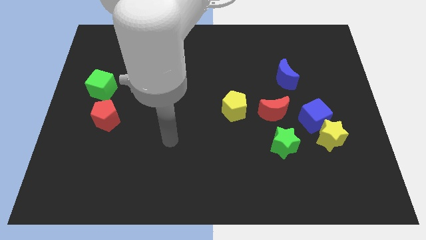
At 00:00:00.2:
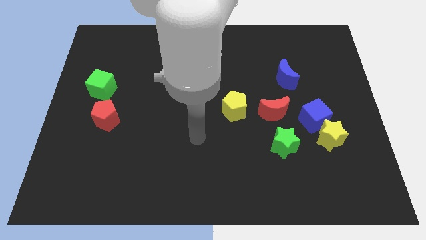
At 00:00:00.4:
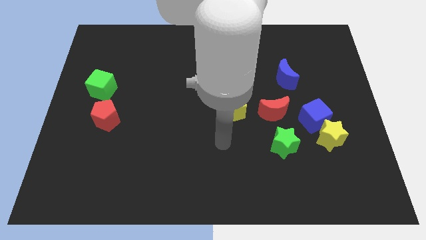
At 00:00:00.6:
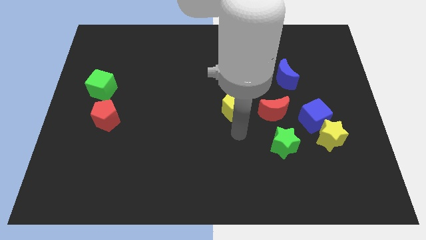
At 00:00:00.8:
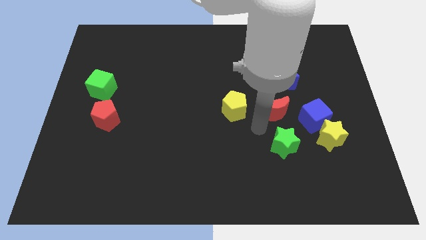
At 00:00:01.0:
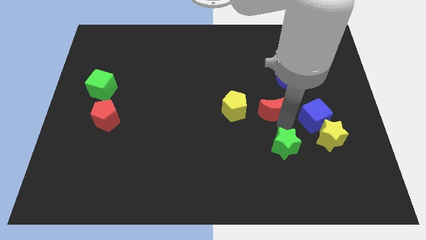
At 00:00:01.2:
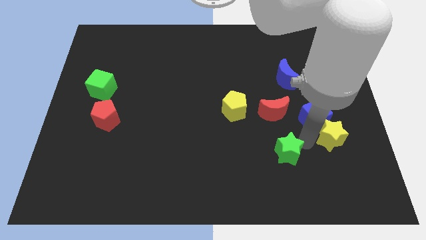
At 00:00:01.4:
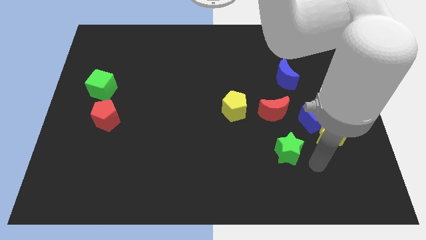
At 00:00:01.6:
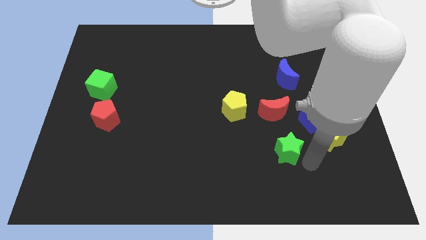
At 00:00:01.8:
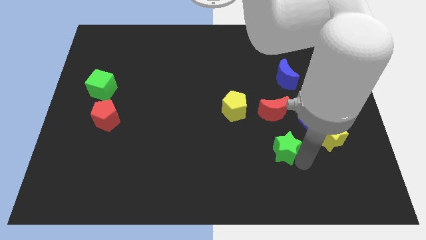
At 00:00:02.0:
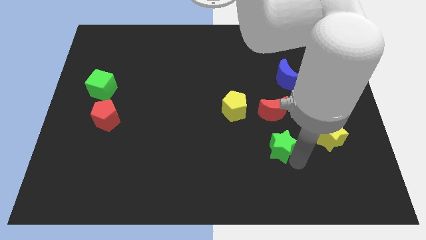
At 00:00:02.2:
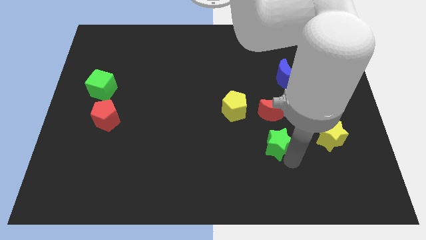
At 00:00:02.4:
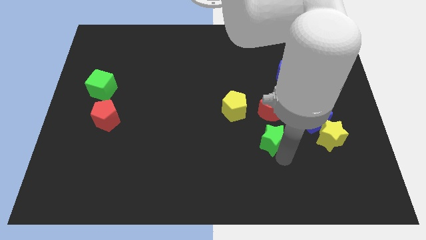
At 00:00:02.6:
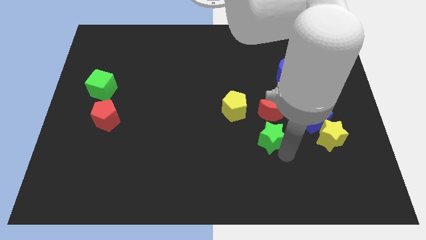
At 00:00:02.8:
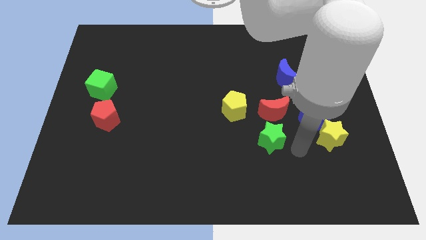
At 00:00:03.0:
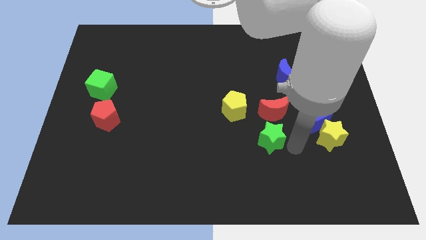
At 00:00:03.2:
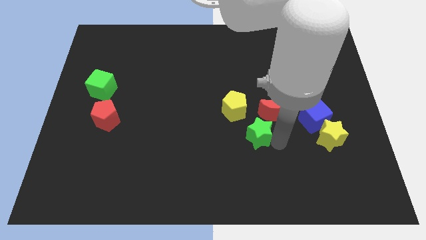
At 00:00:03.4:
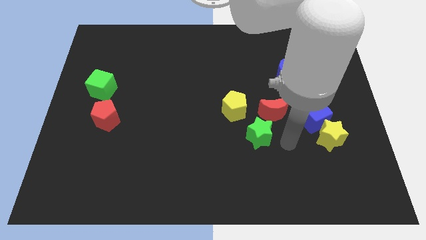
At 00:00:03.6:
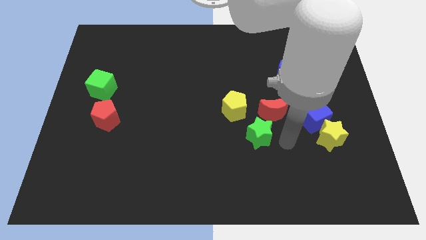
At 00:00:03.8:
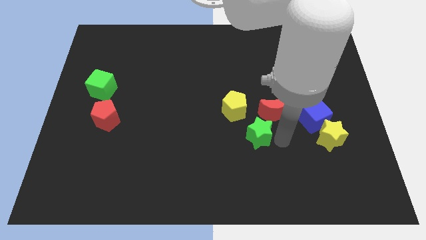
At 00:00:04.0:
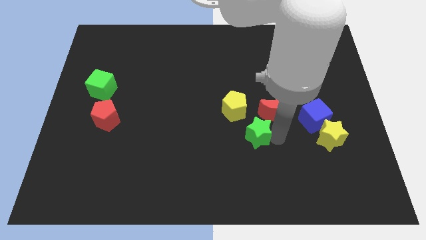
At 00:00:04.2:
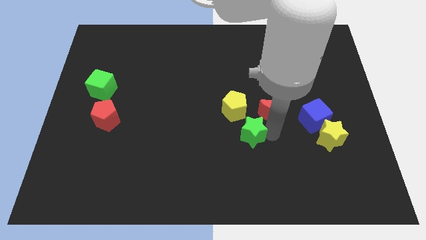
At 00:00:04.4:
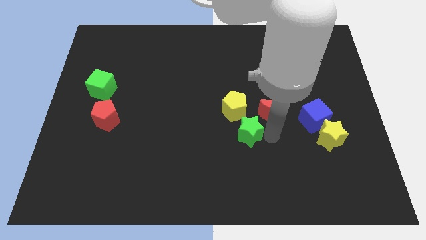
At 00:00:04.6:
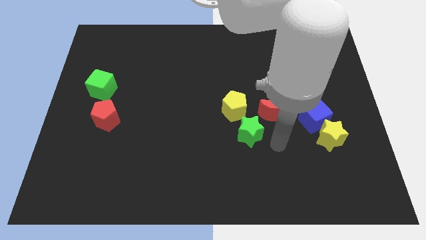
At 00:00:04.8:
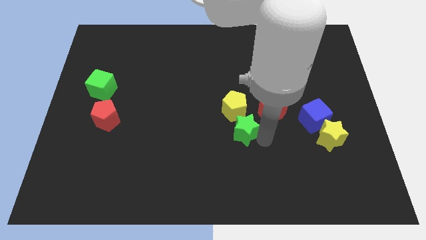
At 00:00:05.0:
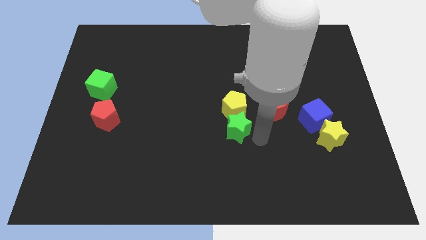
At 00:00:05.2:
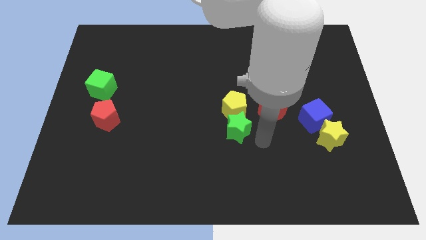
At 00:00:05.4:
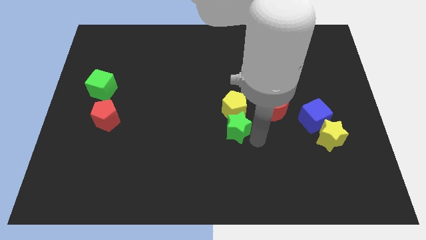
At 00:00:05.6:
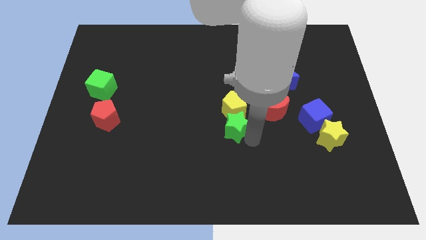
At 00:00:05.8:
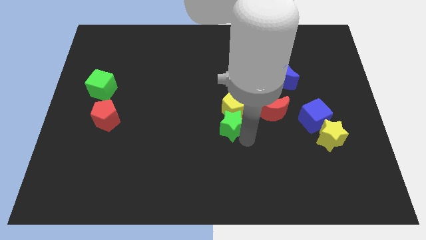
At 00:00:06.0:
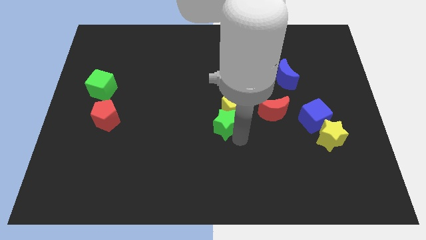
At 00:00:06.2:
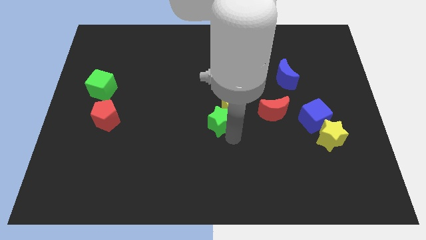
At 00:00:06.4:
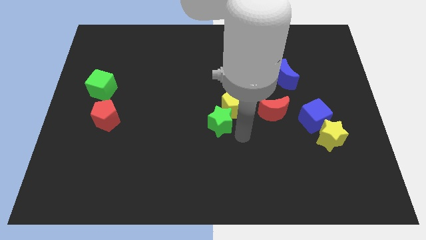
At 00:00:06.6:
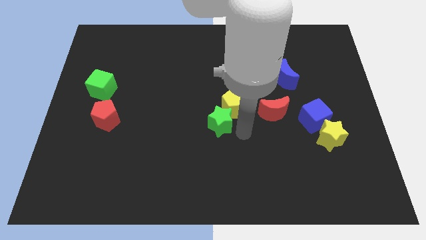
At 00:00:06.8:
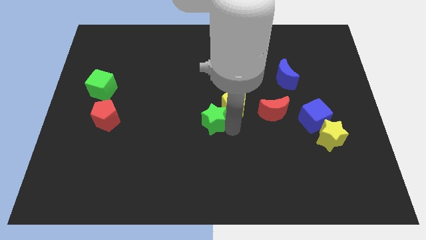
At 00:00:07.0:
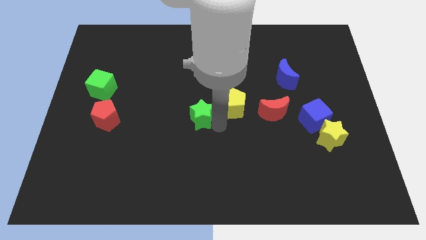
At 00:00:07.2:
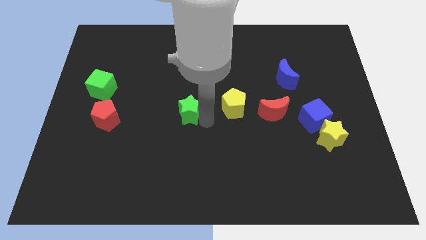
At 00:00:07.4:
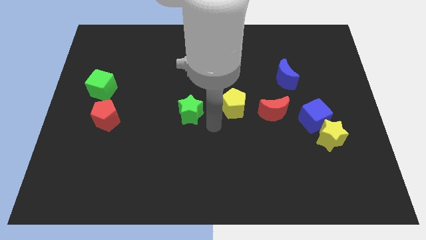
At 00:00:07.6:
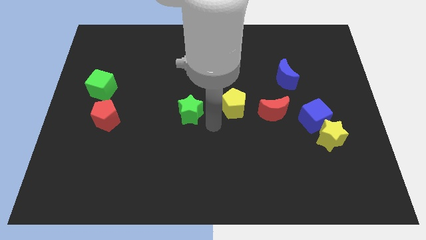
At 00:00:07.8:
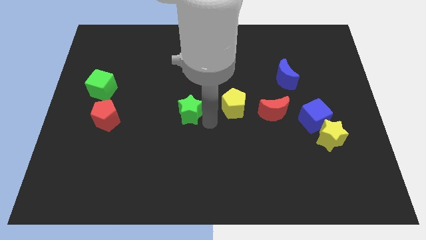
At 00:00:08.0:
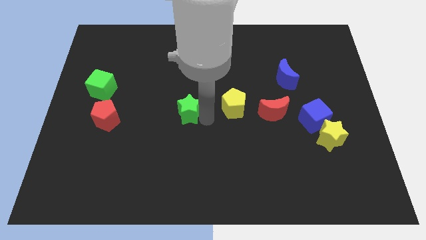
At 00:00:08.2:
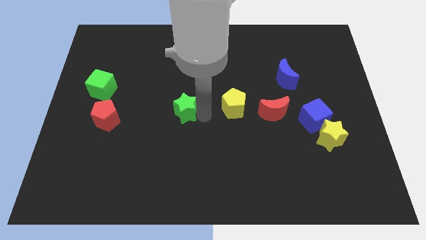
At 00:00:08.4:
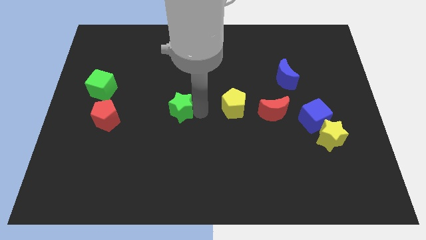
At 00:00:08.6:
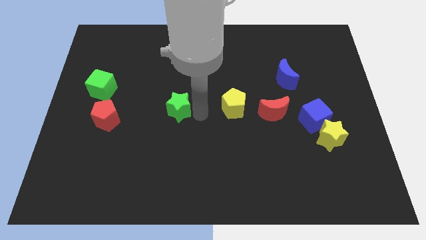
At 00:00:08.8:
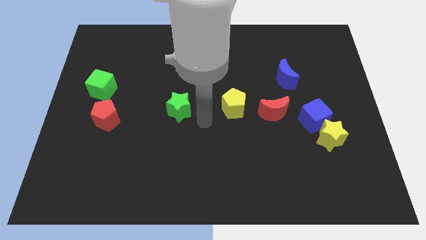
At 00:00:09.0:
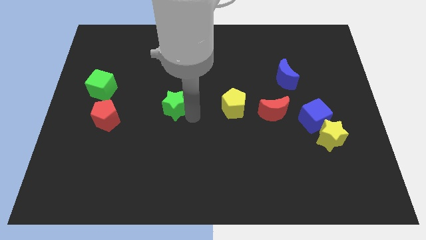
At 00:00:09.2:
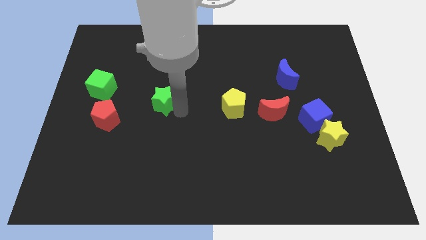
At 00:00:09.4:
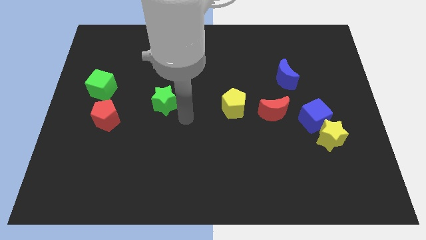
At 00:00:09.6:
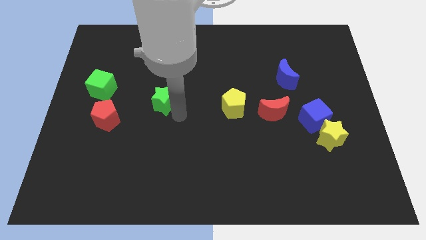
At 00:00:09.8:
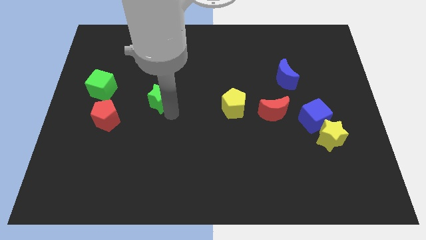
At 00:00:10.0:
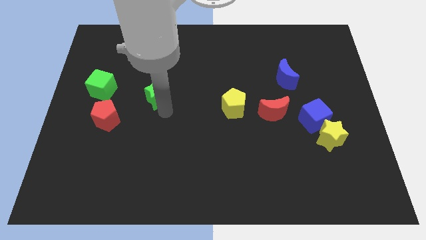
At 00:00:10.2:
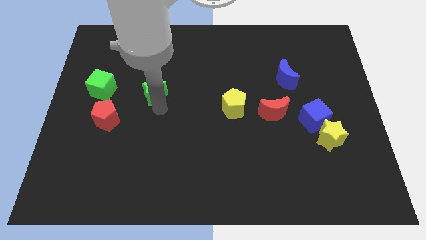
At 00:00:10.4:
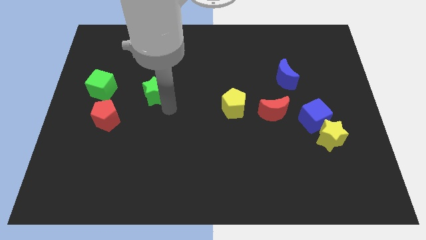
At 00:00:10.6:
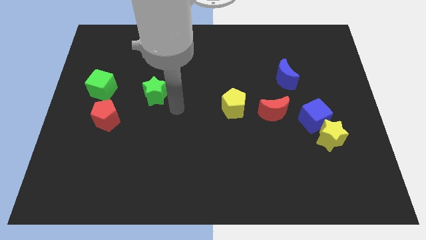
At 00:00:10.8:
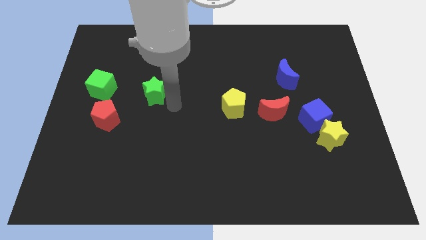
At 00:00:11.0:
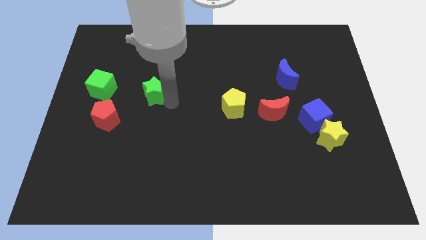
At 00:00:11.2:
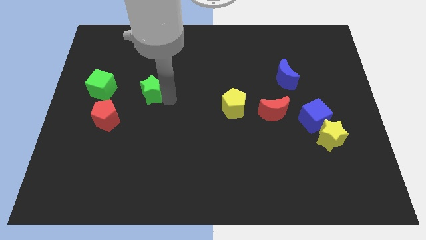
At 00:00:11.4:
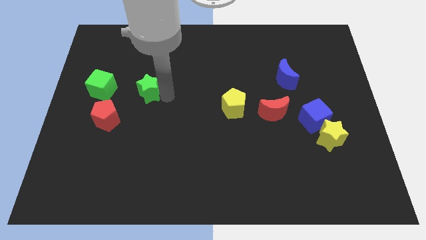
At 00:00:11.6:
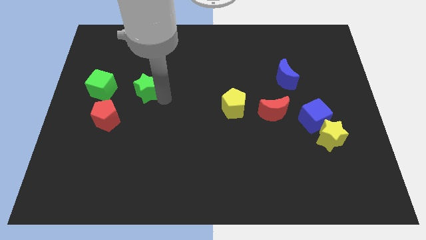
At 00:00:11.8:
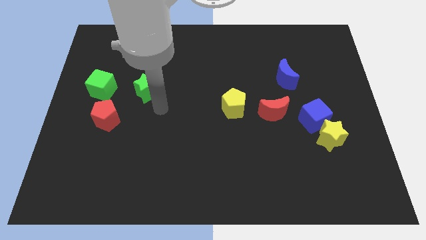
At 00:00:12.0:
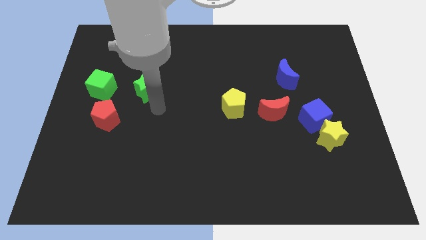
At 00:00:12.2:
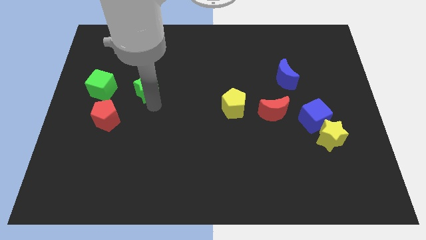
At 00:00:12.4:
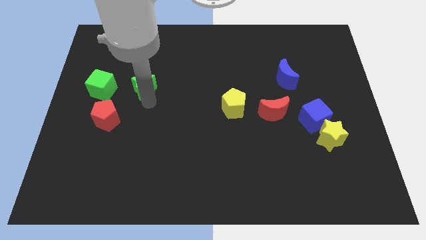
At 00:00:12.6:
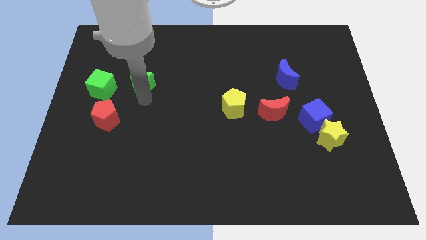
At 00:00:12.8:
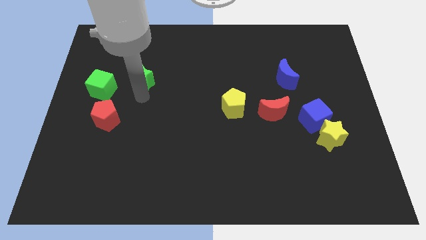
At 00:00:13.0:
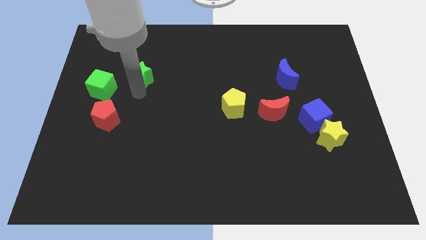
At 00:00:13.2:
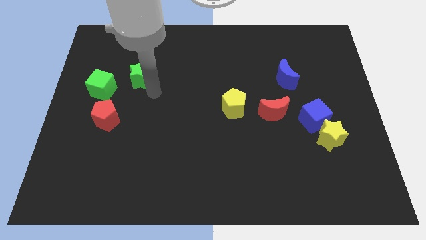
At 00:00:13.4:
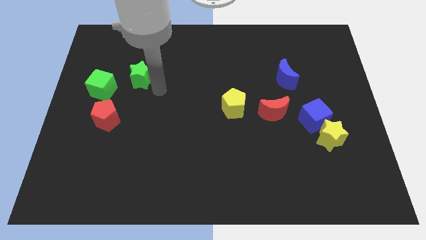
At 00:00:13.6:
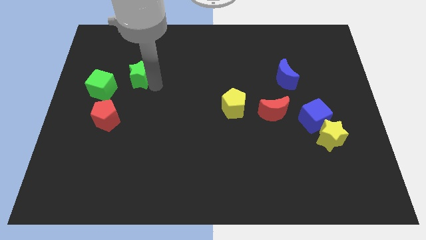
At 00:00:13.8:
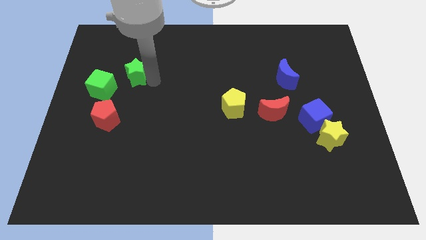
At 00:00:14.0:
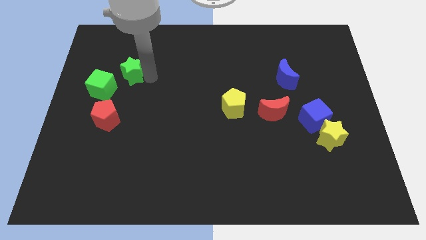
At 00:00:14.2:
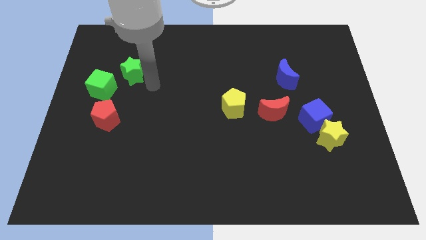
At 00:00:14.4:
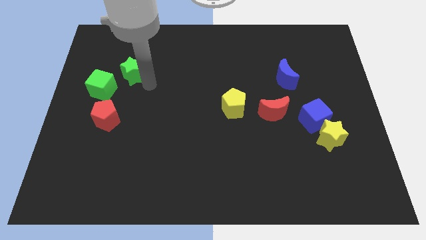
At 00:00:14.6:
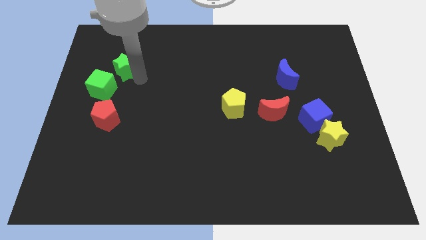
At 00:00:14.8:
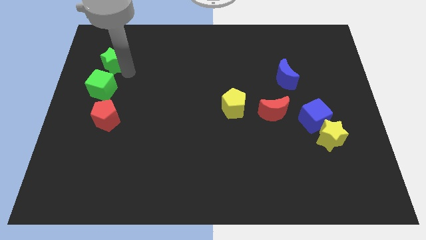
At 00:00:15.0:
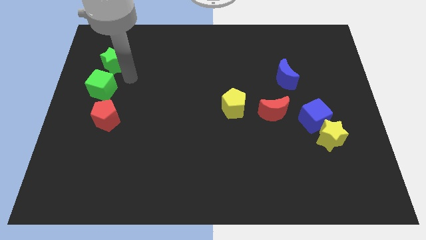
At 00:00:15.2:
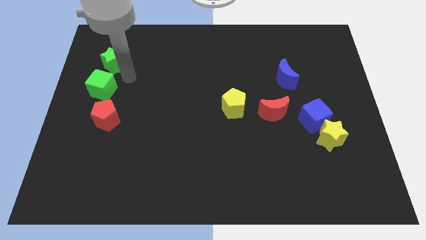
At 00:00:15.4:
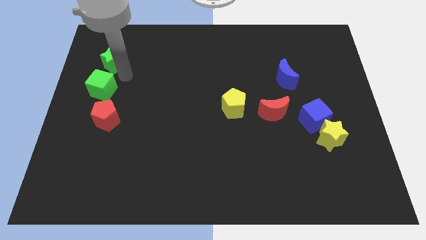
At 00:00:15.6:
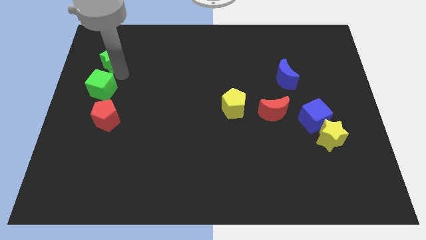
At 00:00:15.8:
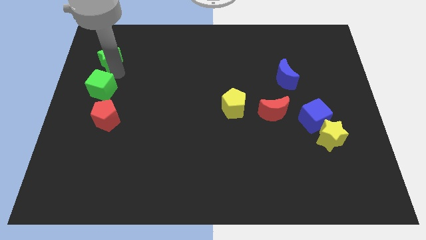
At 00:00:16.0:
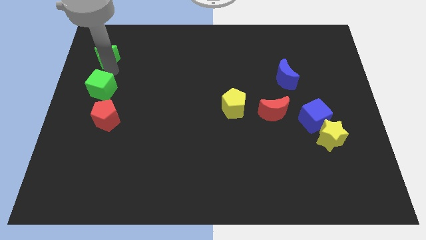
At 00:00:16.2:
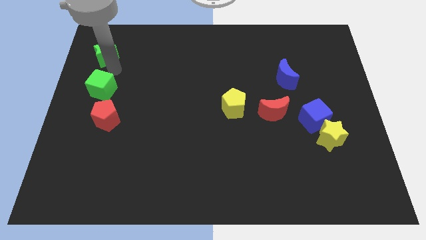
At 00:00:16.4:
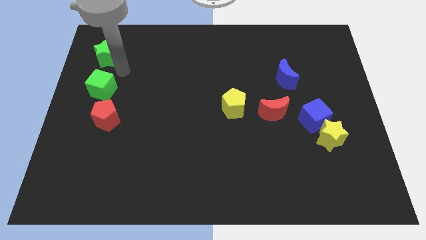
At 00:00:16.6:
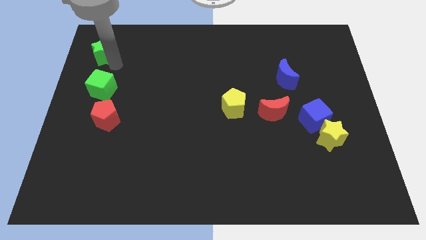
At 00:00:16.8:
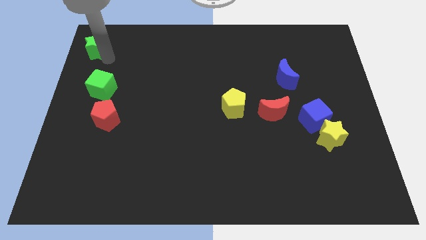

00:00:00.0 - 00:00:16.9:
move the green star to the top left corner
